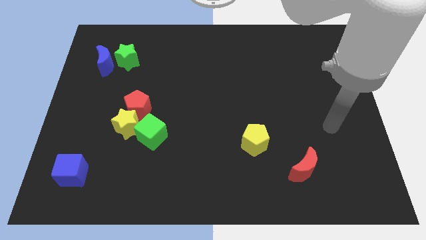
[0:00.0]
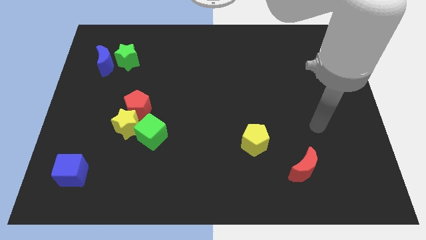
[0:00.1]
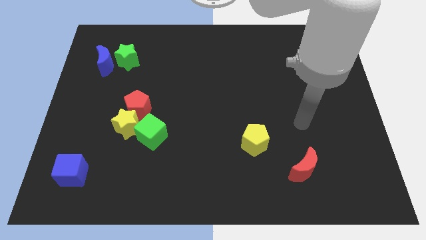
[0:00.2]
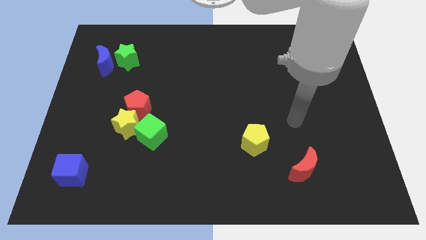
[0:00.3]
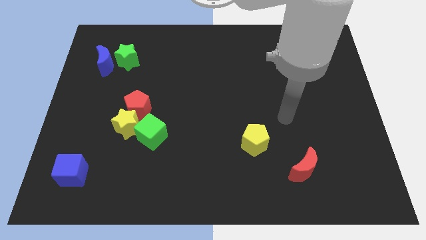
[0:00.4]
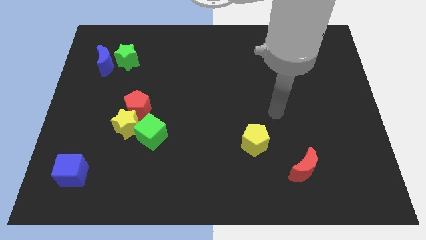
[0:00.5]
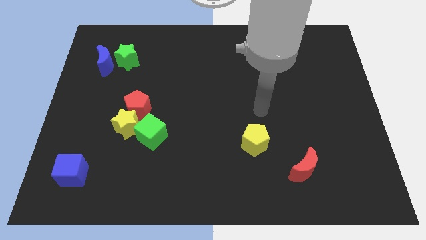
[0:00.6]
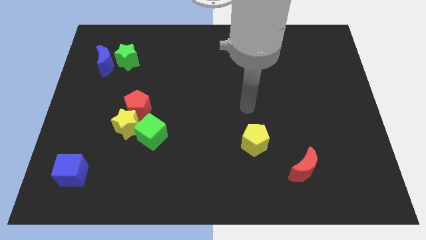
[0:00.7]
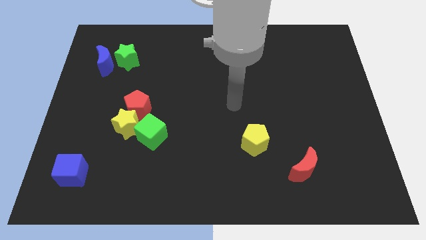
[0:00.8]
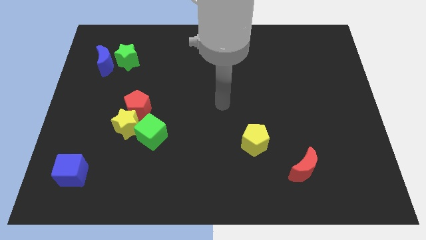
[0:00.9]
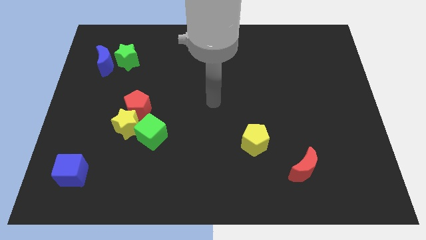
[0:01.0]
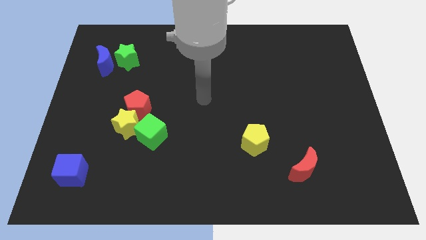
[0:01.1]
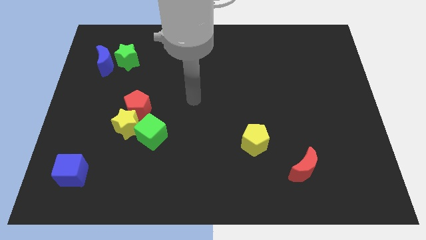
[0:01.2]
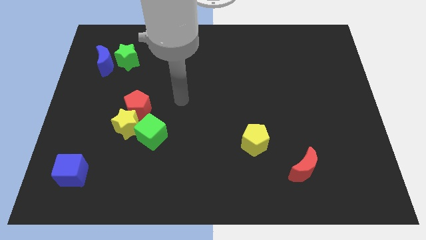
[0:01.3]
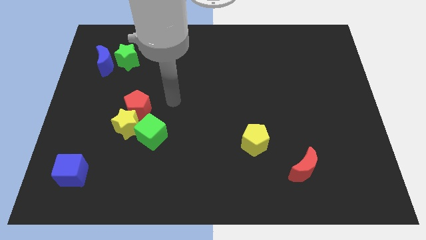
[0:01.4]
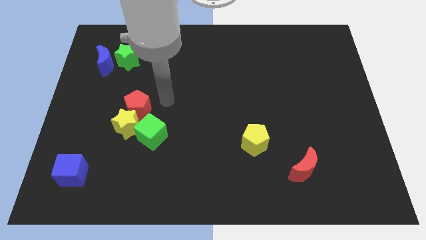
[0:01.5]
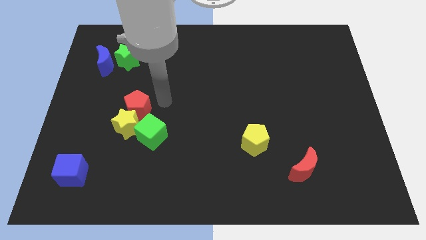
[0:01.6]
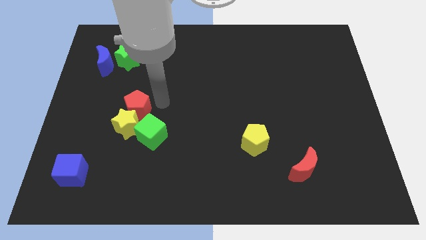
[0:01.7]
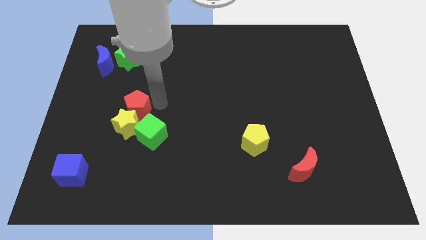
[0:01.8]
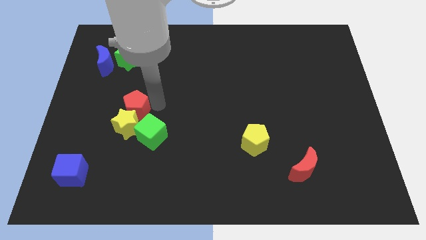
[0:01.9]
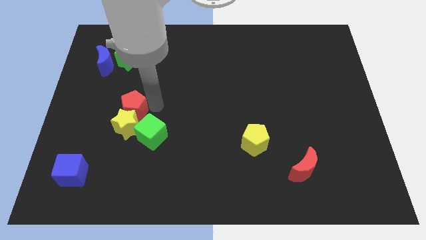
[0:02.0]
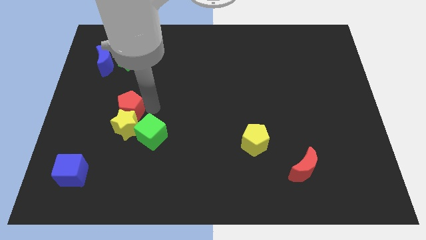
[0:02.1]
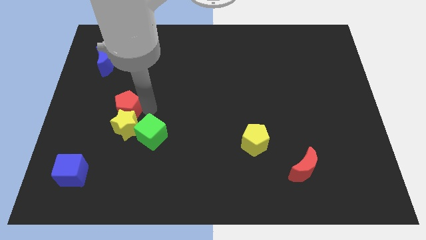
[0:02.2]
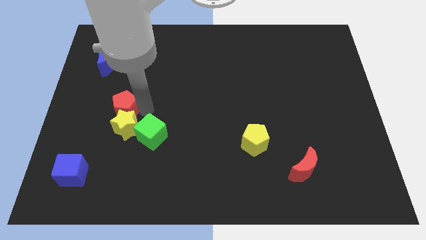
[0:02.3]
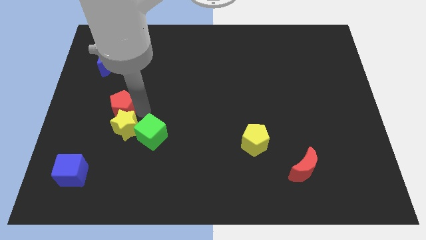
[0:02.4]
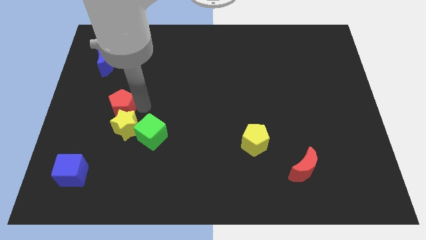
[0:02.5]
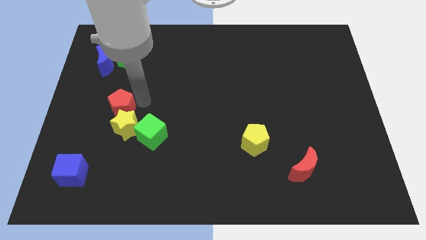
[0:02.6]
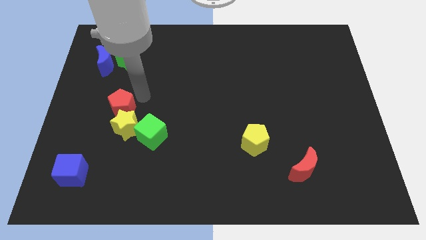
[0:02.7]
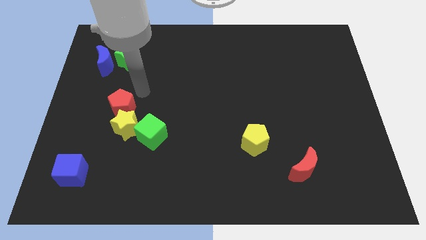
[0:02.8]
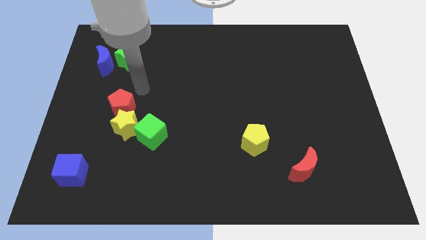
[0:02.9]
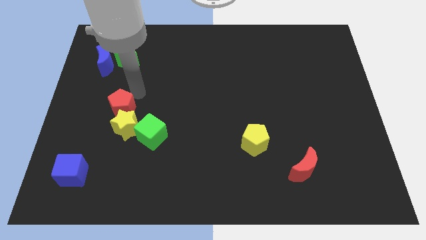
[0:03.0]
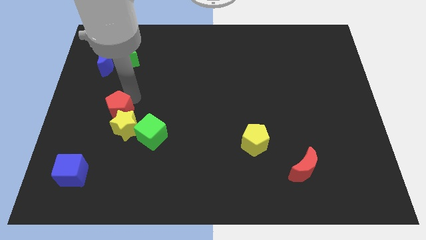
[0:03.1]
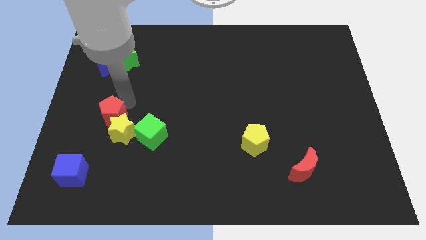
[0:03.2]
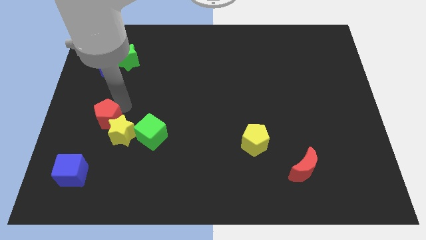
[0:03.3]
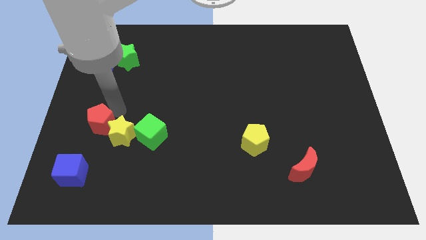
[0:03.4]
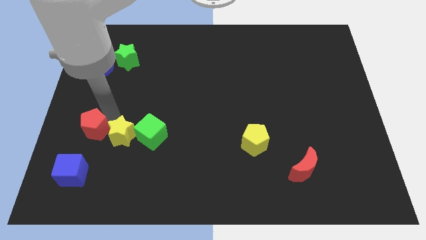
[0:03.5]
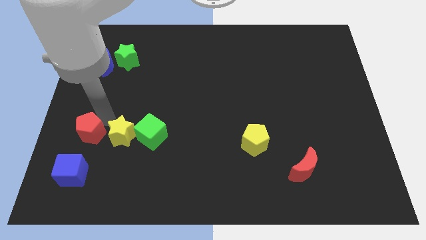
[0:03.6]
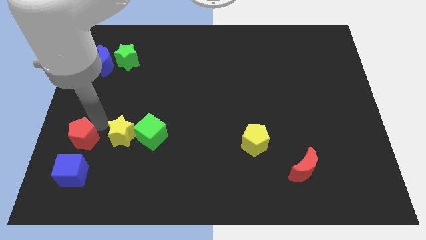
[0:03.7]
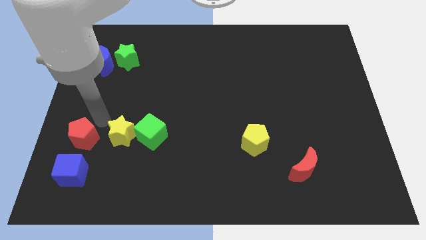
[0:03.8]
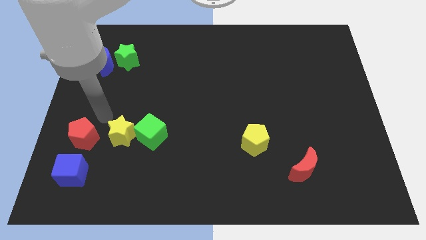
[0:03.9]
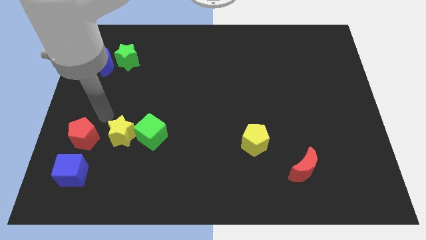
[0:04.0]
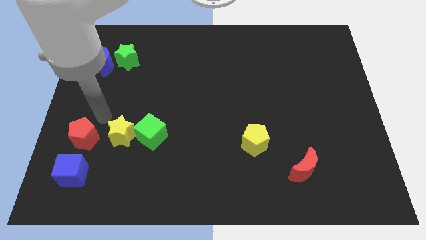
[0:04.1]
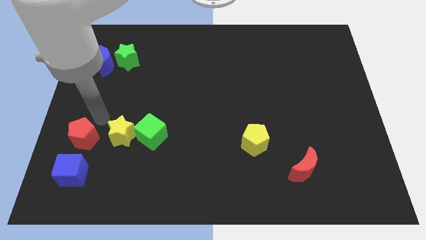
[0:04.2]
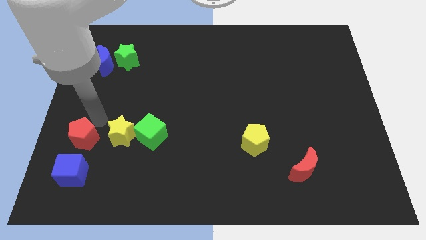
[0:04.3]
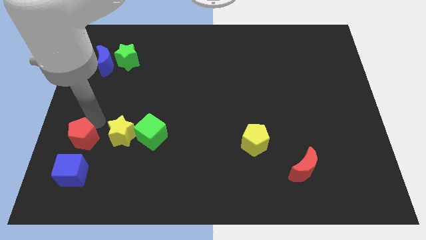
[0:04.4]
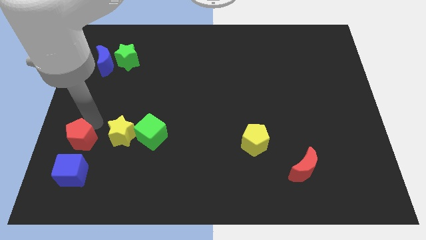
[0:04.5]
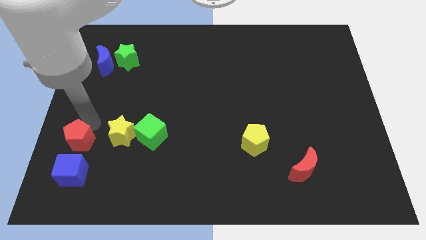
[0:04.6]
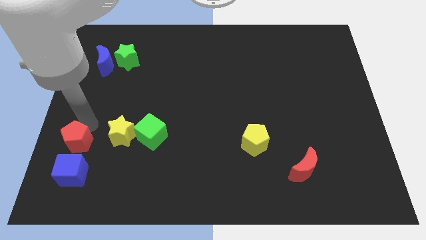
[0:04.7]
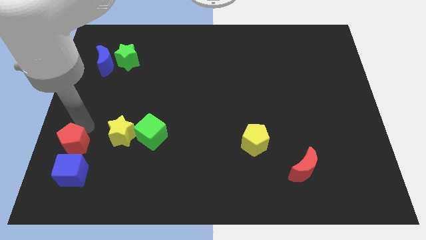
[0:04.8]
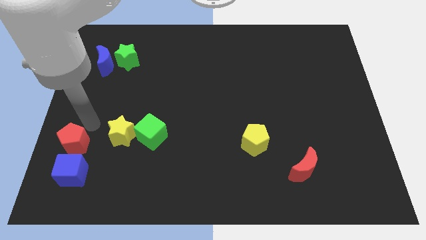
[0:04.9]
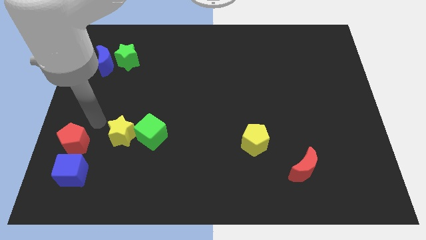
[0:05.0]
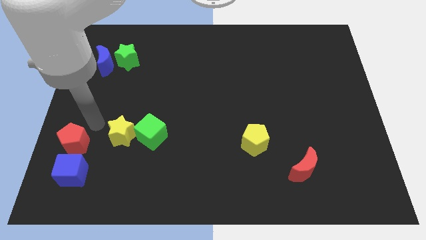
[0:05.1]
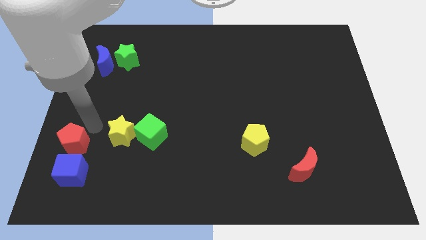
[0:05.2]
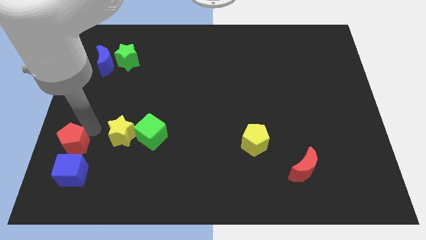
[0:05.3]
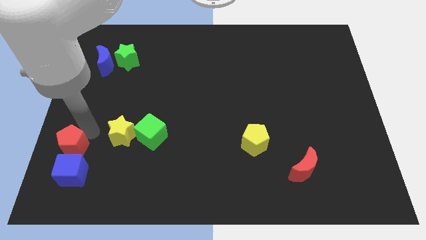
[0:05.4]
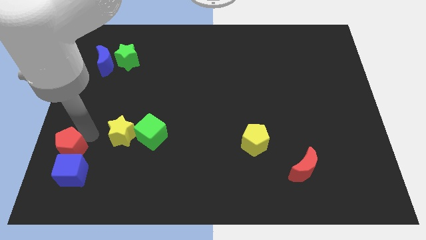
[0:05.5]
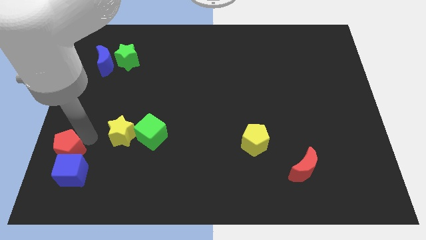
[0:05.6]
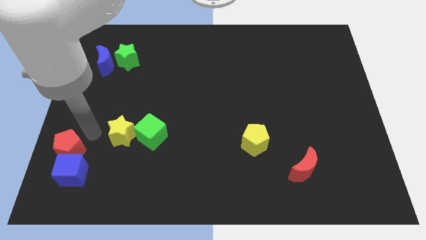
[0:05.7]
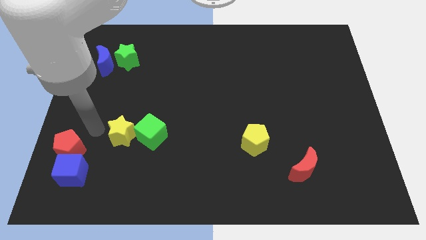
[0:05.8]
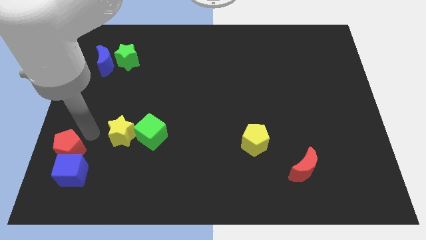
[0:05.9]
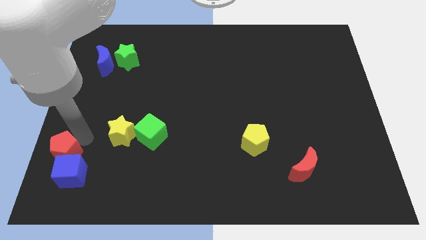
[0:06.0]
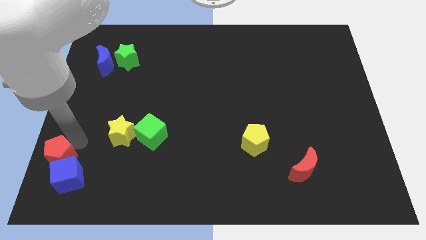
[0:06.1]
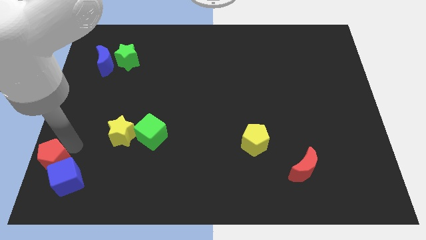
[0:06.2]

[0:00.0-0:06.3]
slide the red pentagon to the bottom left
